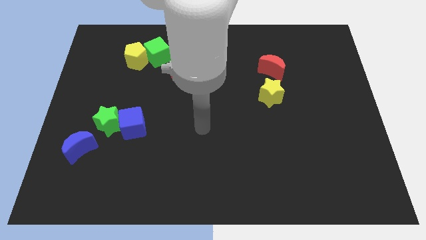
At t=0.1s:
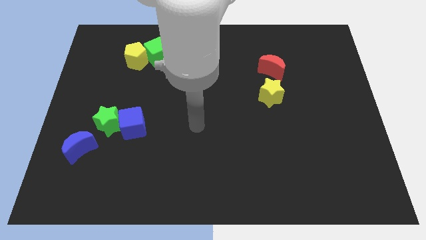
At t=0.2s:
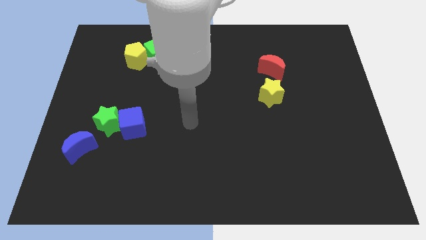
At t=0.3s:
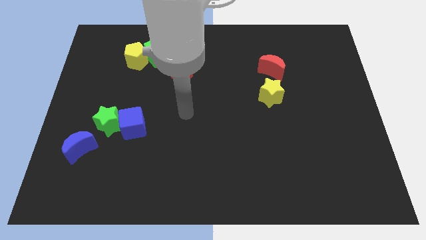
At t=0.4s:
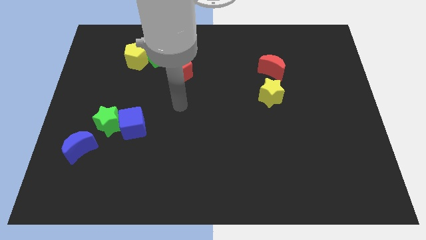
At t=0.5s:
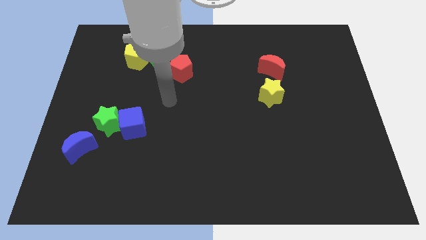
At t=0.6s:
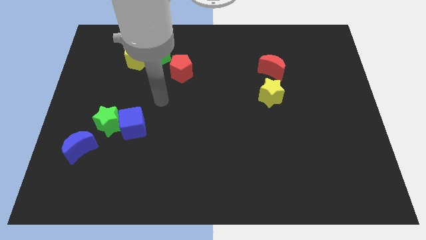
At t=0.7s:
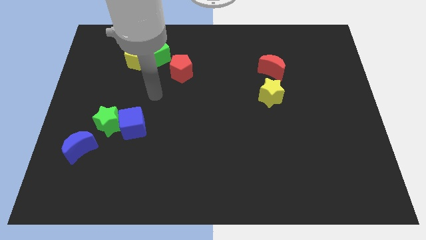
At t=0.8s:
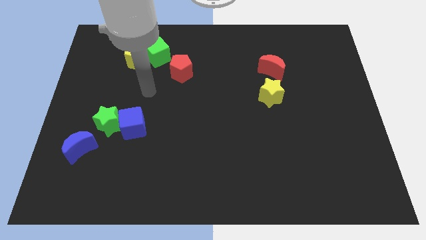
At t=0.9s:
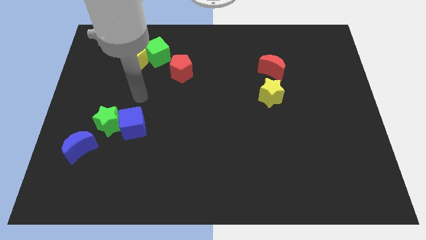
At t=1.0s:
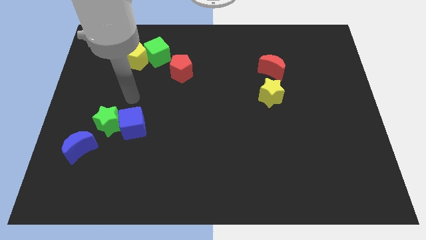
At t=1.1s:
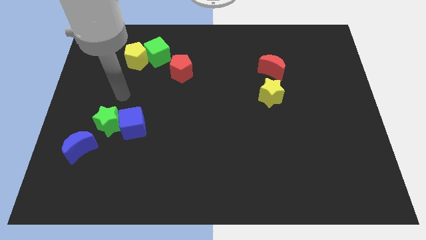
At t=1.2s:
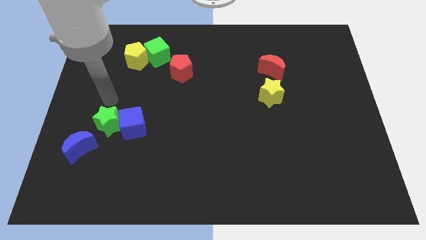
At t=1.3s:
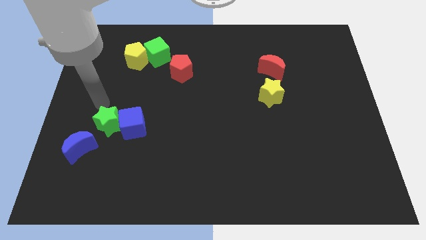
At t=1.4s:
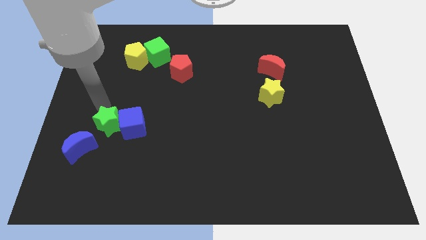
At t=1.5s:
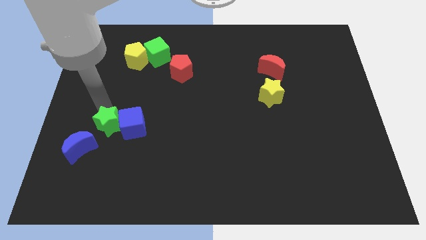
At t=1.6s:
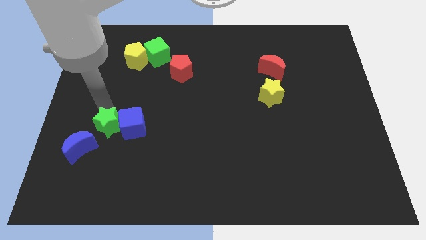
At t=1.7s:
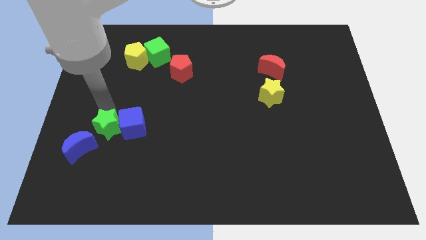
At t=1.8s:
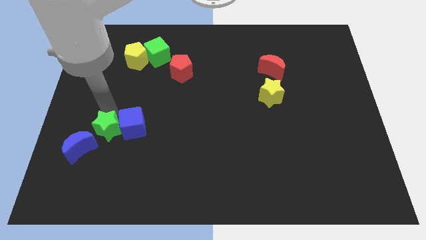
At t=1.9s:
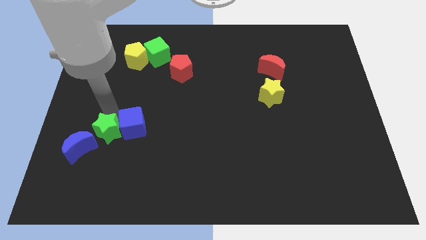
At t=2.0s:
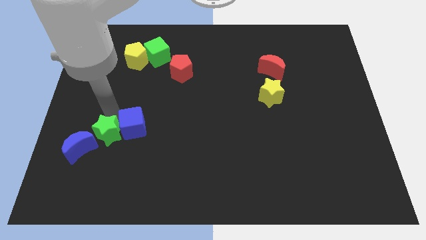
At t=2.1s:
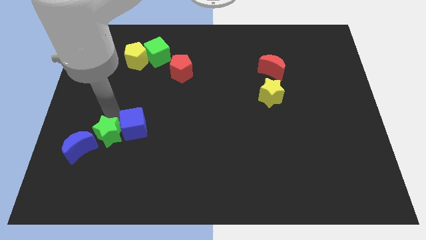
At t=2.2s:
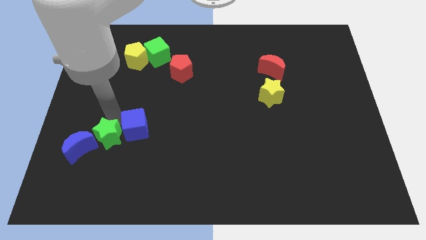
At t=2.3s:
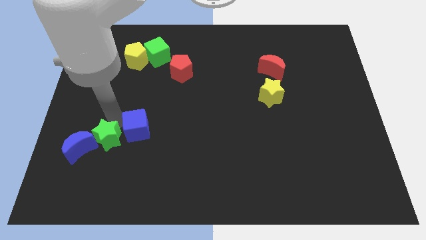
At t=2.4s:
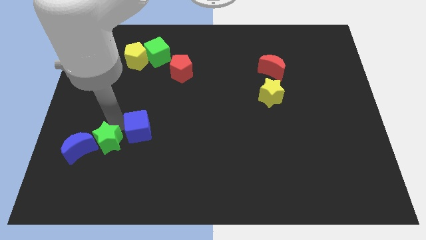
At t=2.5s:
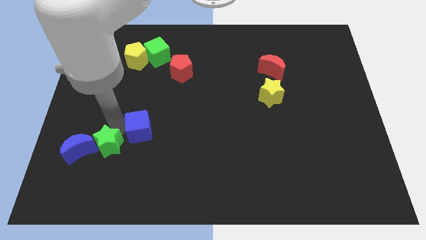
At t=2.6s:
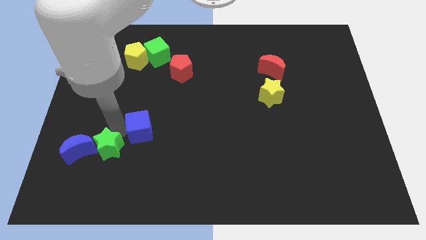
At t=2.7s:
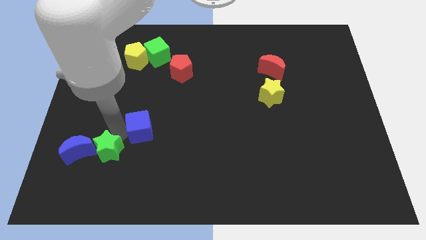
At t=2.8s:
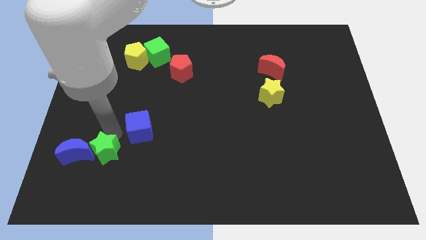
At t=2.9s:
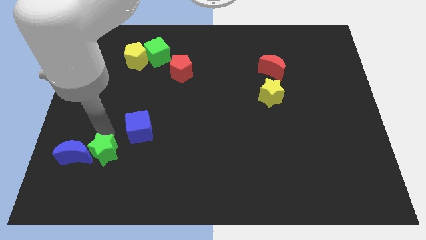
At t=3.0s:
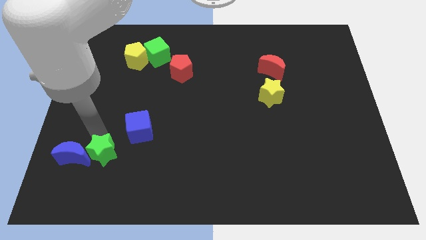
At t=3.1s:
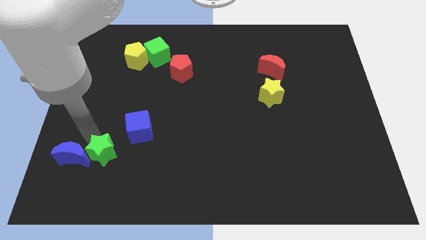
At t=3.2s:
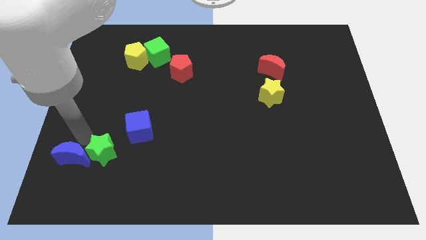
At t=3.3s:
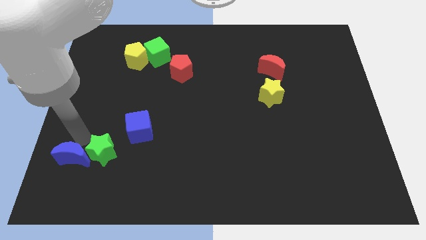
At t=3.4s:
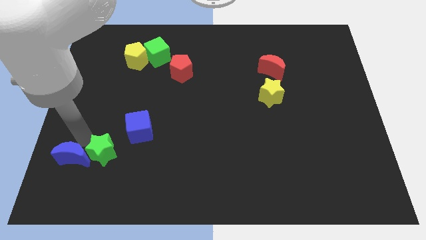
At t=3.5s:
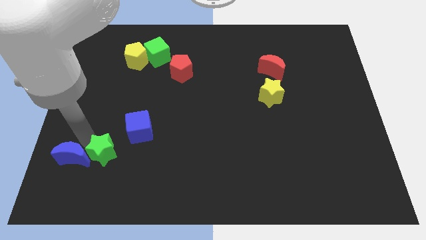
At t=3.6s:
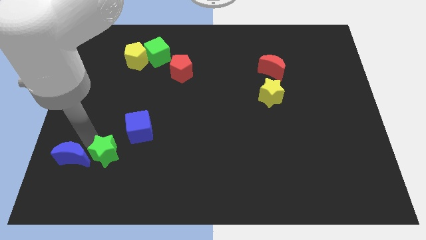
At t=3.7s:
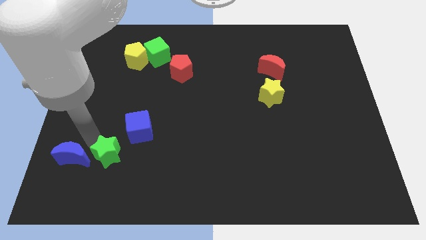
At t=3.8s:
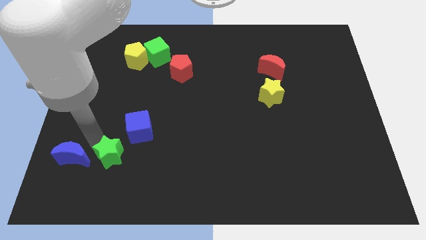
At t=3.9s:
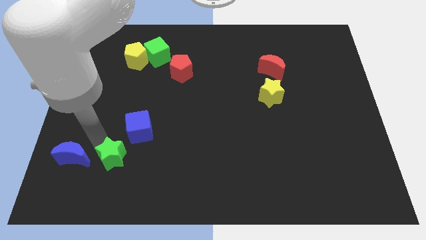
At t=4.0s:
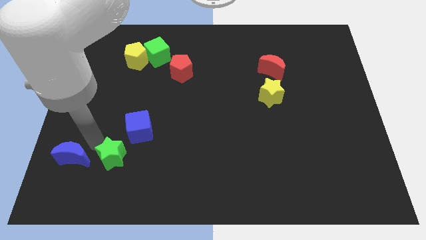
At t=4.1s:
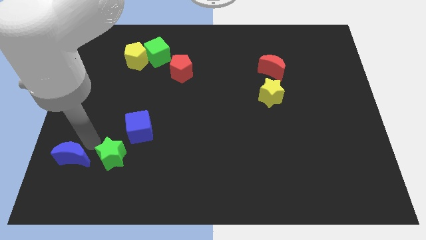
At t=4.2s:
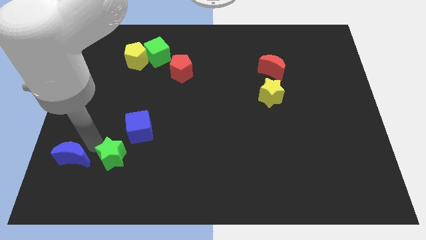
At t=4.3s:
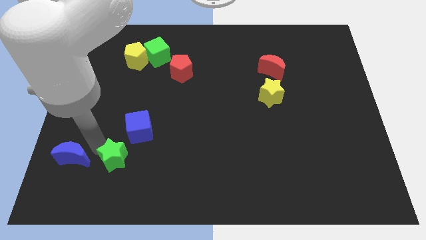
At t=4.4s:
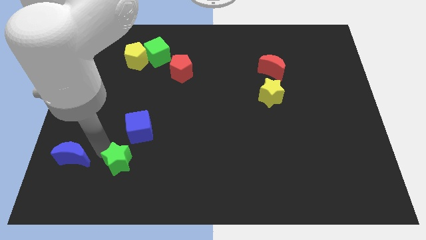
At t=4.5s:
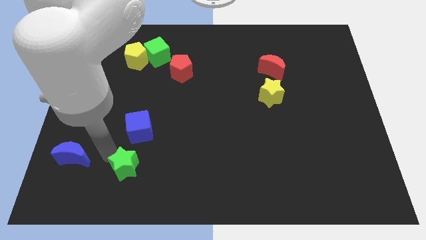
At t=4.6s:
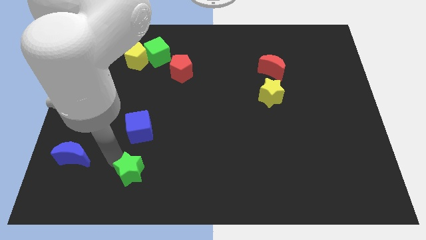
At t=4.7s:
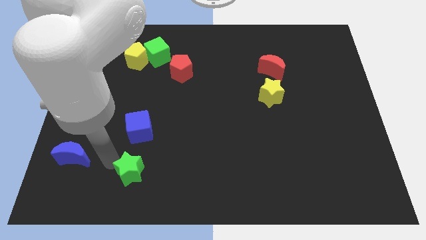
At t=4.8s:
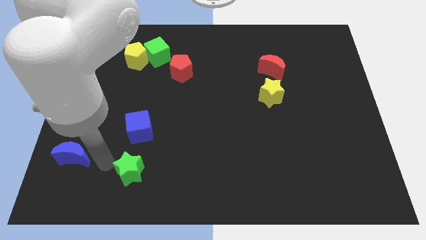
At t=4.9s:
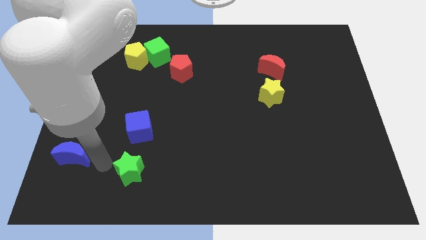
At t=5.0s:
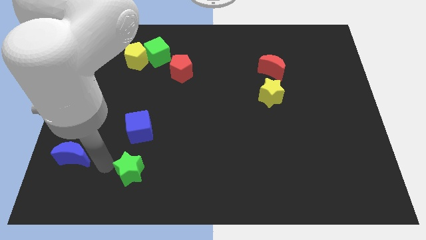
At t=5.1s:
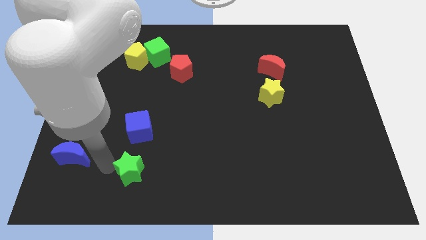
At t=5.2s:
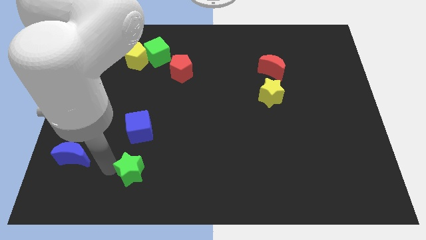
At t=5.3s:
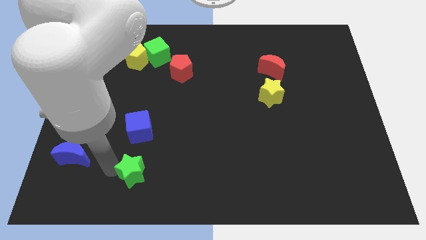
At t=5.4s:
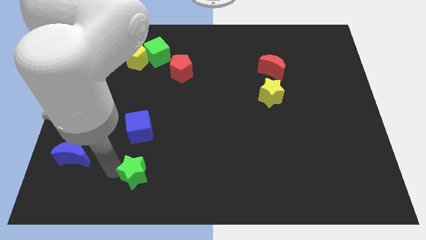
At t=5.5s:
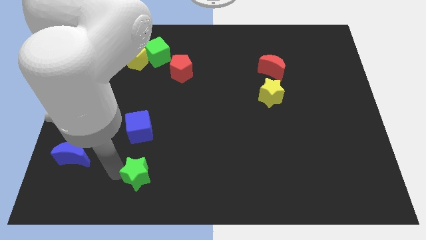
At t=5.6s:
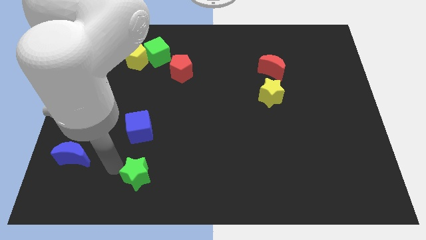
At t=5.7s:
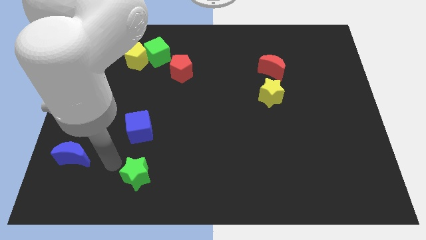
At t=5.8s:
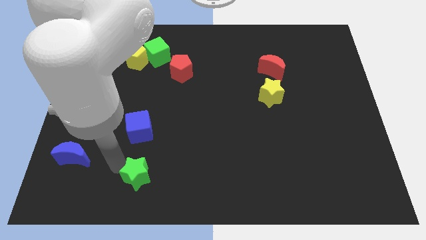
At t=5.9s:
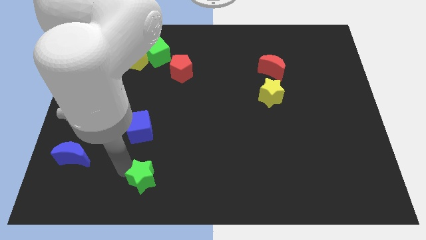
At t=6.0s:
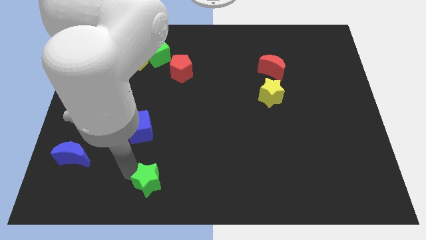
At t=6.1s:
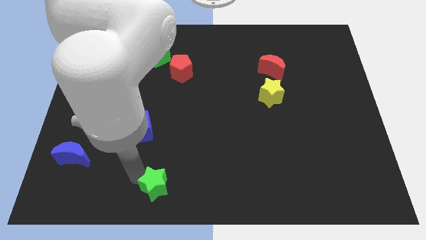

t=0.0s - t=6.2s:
put the green star to the bottom
